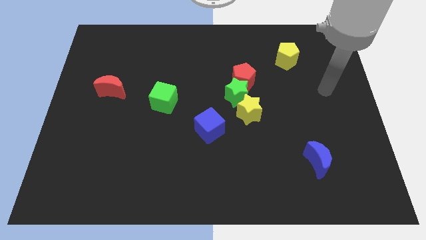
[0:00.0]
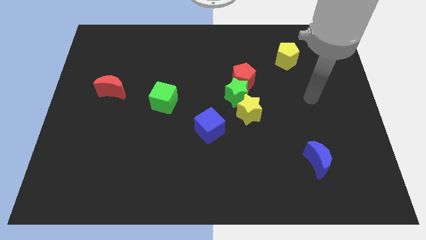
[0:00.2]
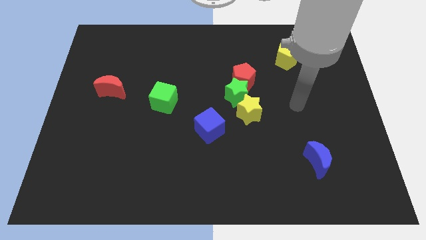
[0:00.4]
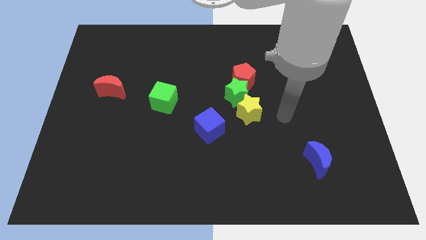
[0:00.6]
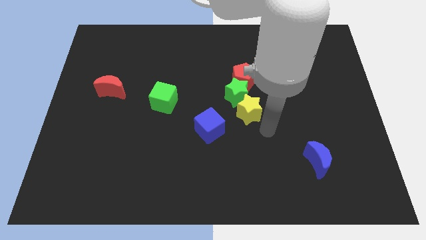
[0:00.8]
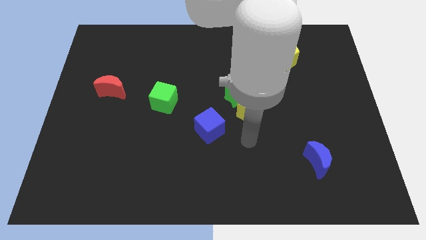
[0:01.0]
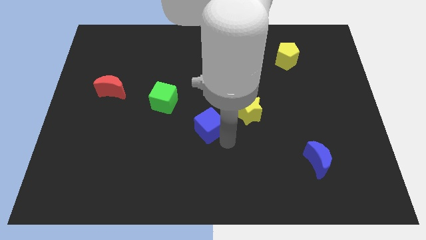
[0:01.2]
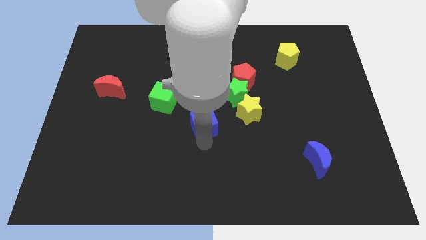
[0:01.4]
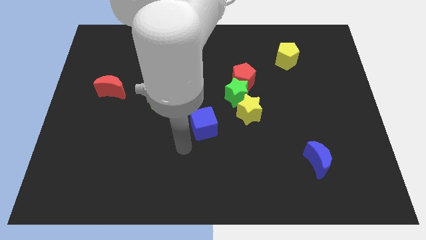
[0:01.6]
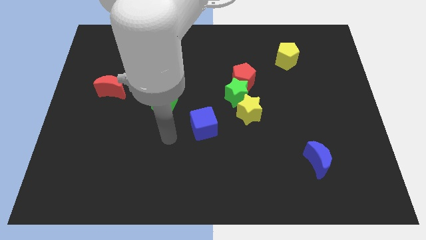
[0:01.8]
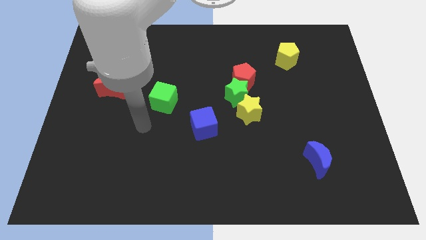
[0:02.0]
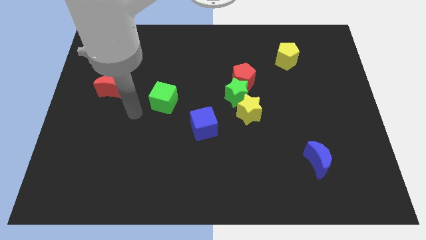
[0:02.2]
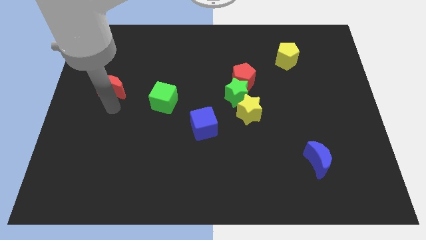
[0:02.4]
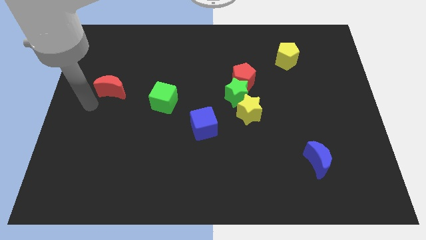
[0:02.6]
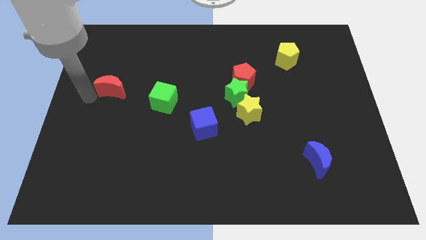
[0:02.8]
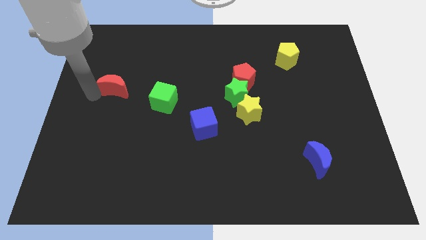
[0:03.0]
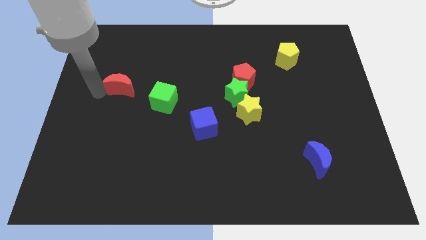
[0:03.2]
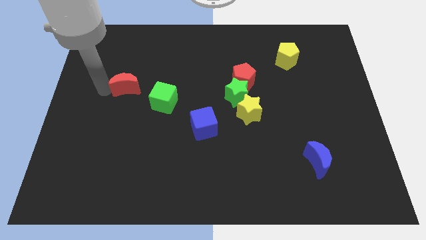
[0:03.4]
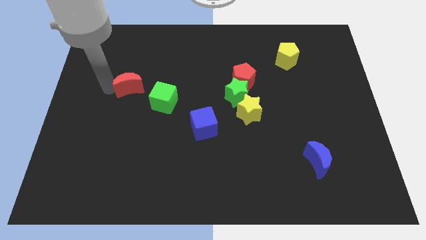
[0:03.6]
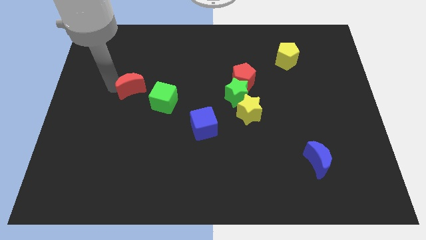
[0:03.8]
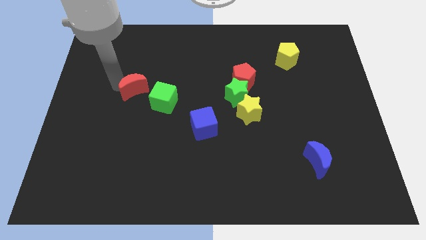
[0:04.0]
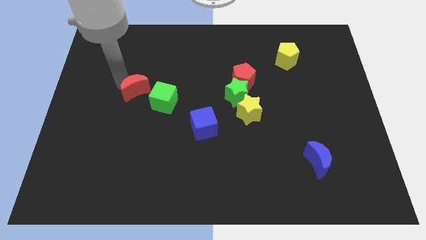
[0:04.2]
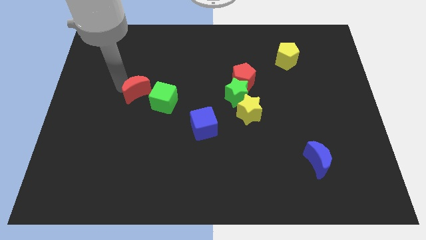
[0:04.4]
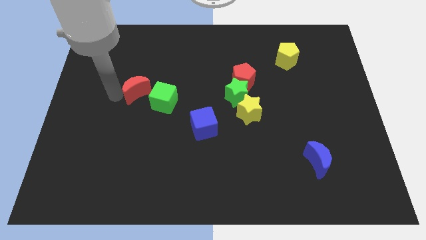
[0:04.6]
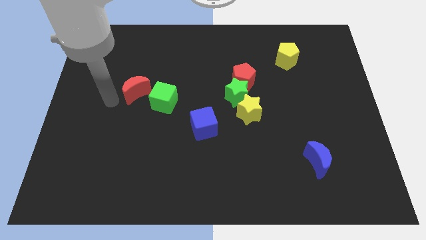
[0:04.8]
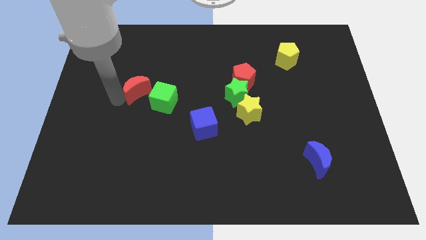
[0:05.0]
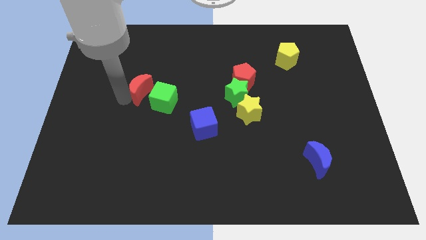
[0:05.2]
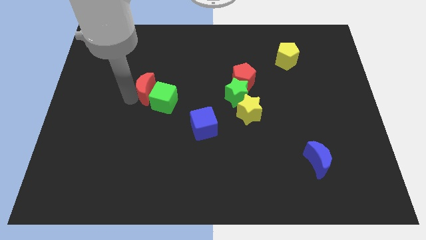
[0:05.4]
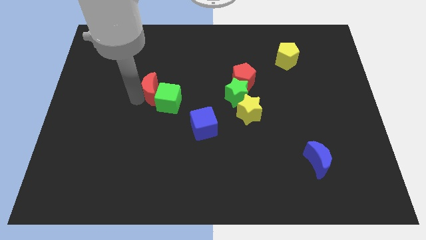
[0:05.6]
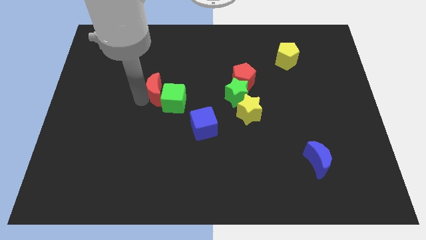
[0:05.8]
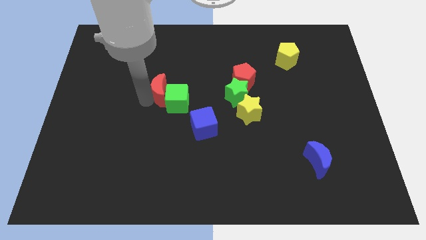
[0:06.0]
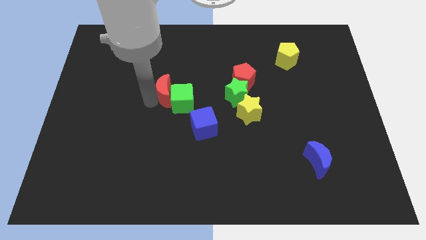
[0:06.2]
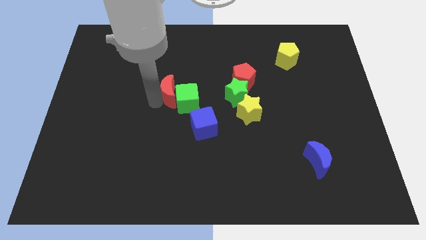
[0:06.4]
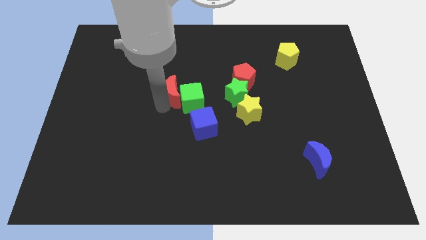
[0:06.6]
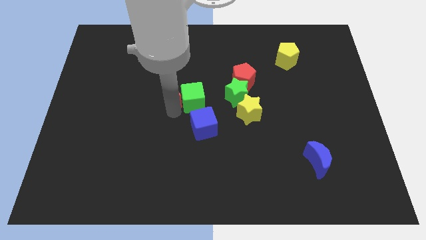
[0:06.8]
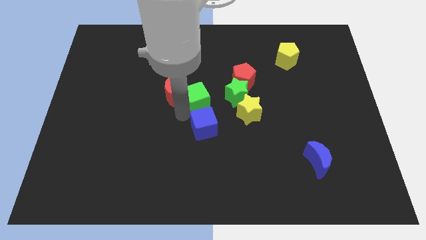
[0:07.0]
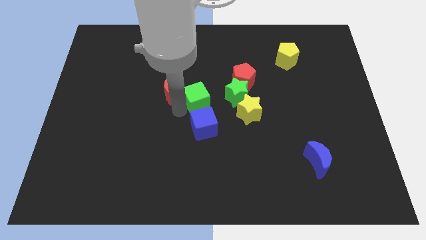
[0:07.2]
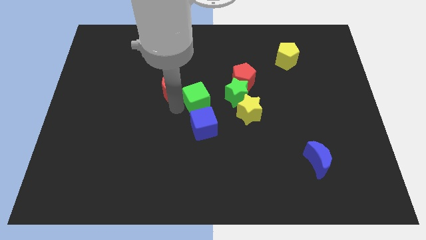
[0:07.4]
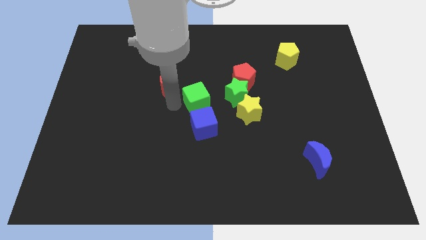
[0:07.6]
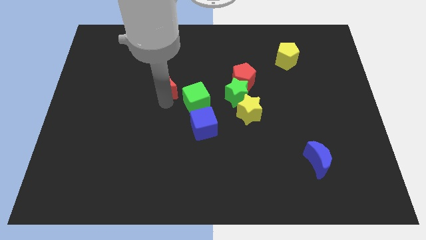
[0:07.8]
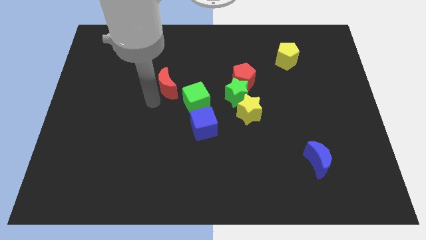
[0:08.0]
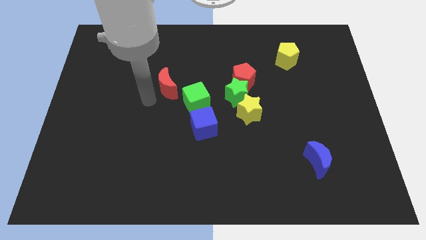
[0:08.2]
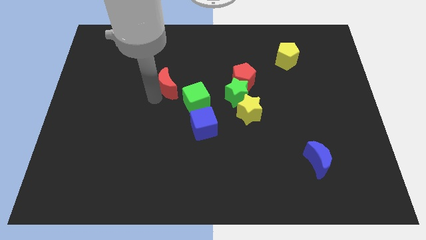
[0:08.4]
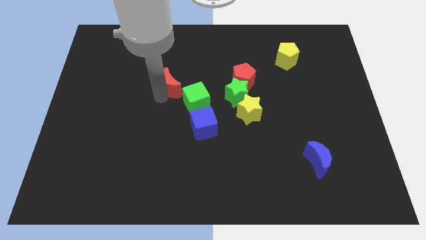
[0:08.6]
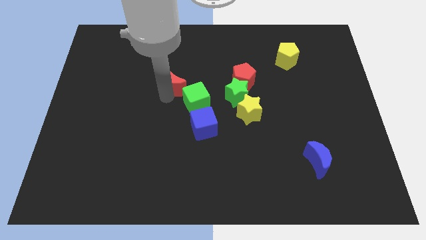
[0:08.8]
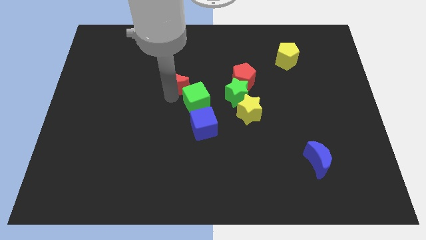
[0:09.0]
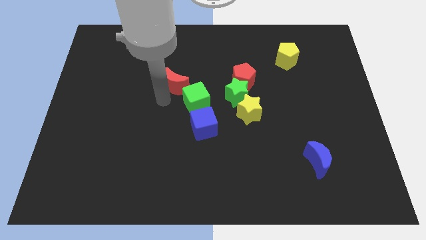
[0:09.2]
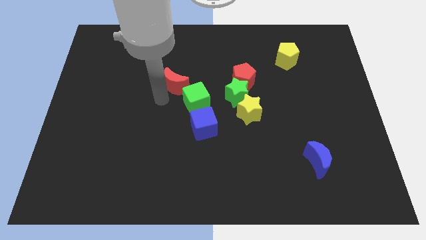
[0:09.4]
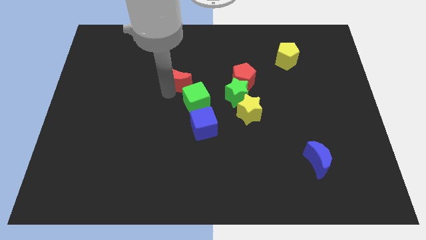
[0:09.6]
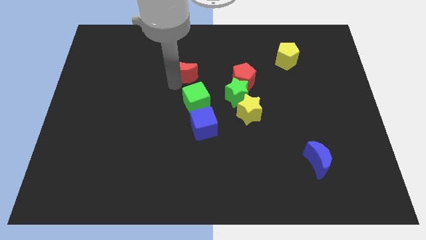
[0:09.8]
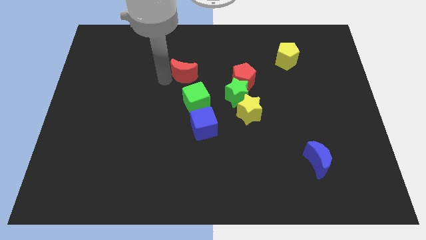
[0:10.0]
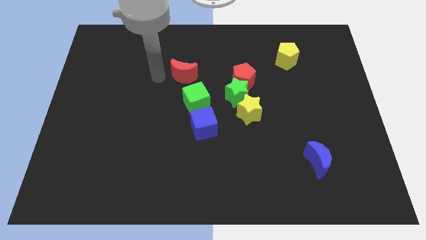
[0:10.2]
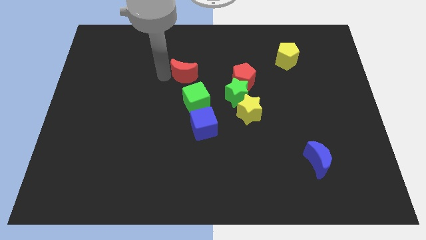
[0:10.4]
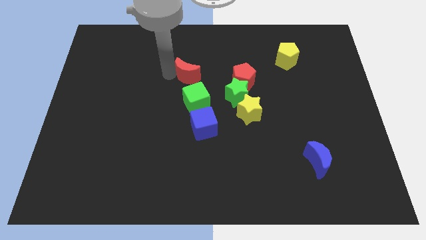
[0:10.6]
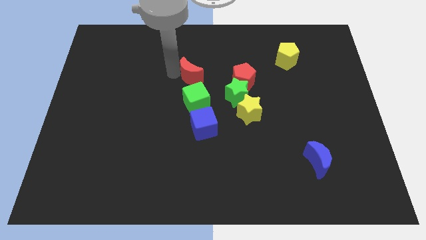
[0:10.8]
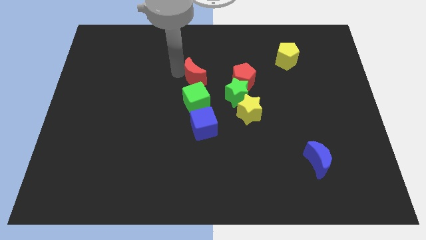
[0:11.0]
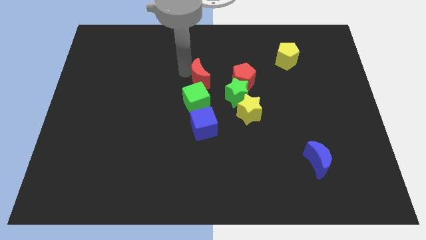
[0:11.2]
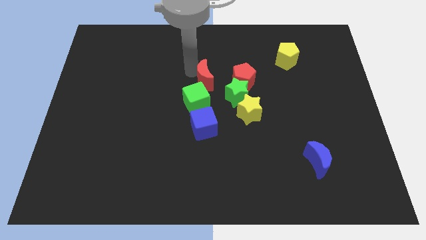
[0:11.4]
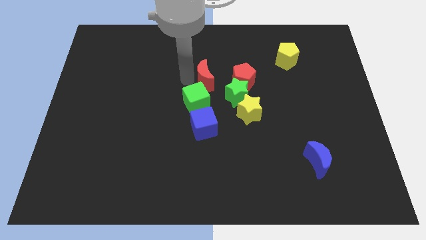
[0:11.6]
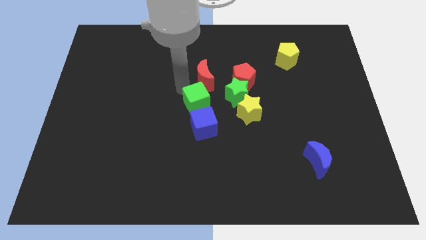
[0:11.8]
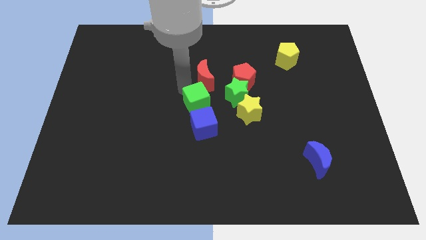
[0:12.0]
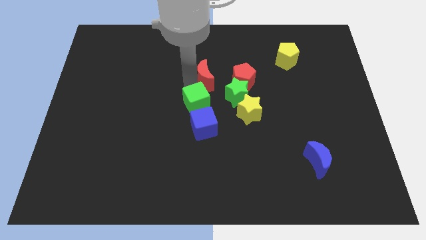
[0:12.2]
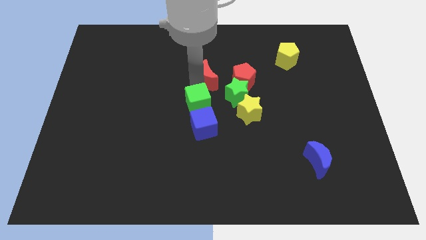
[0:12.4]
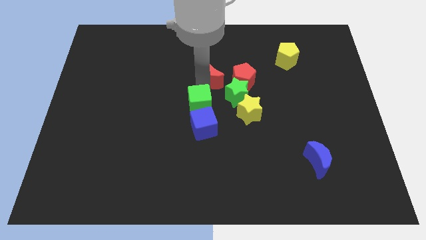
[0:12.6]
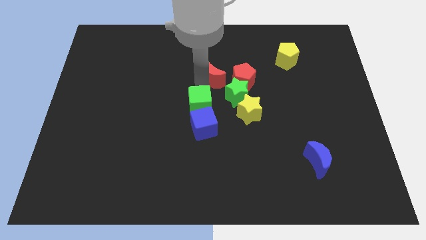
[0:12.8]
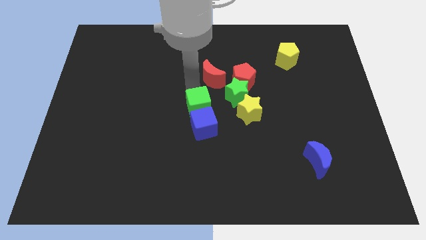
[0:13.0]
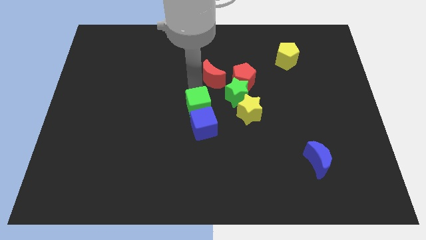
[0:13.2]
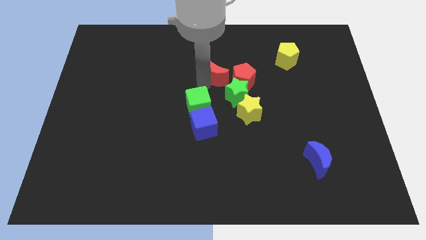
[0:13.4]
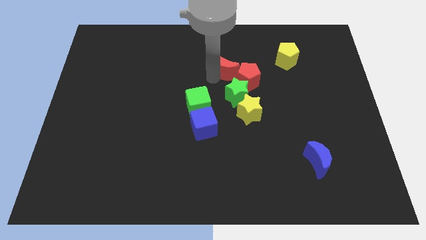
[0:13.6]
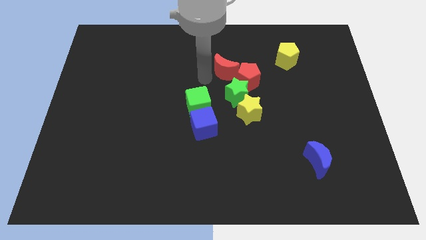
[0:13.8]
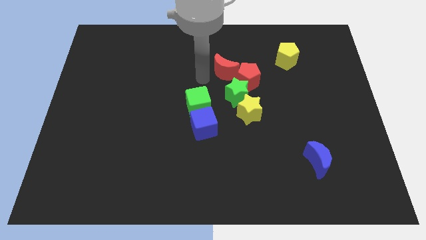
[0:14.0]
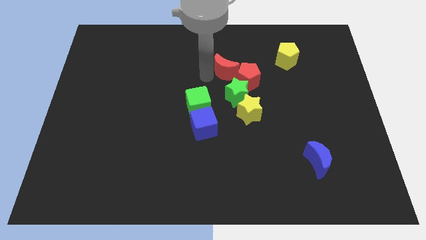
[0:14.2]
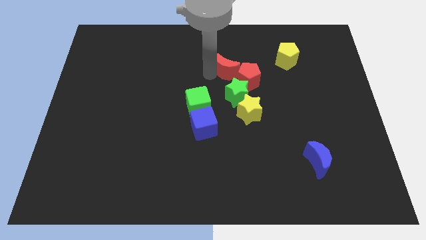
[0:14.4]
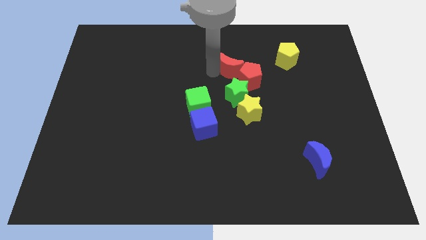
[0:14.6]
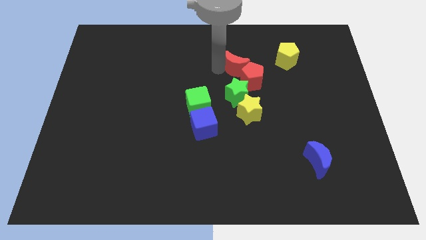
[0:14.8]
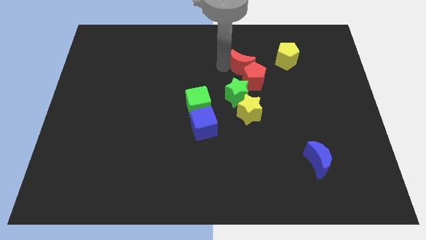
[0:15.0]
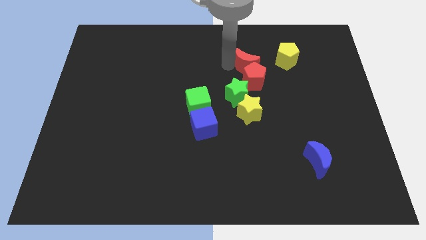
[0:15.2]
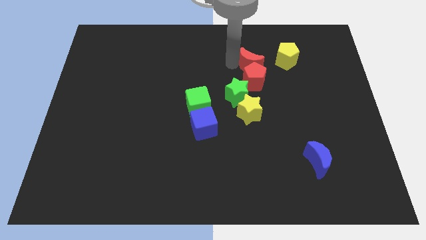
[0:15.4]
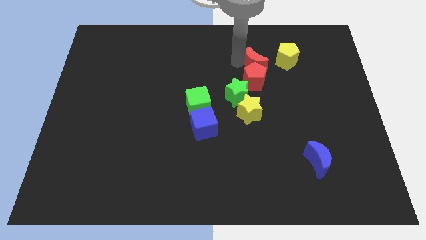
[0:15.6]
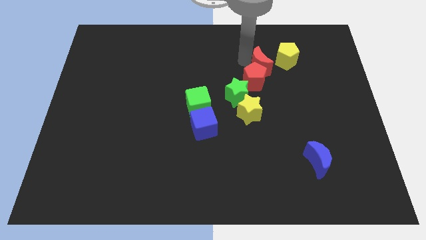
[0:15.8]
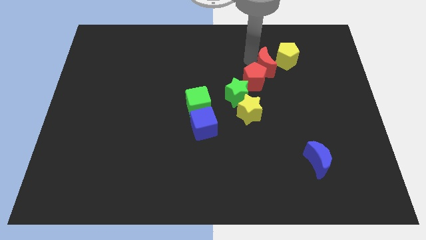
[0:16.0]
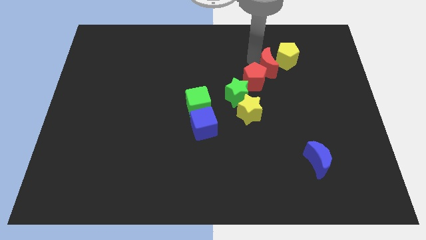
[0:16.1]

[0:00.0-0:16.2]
slide the red moon next to the yellow pentagon
